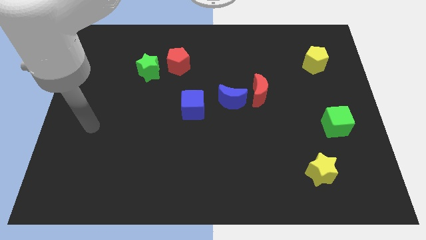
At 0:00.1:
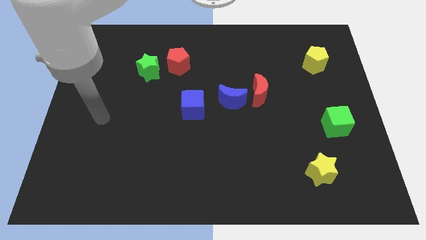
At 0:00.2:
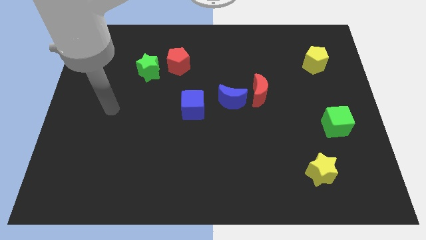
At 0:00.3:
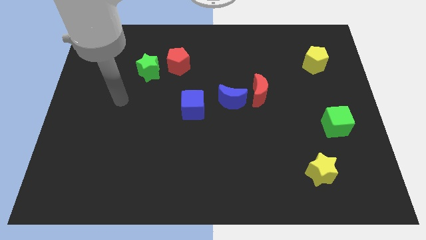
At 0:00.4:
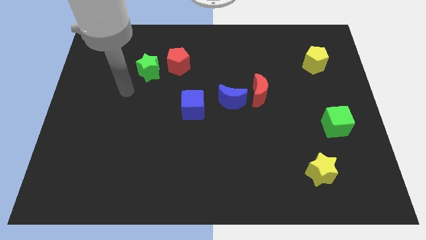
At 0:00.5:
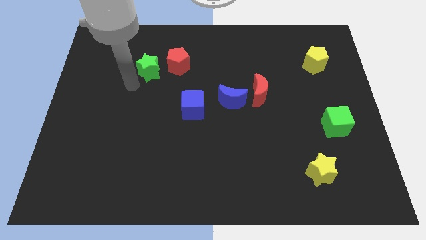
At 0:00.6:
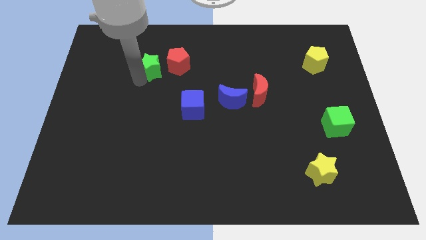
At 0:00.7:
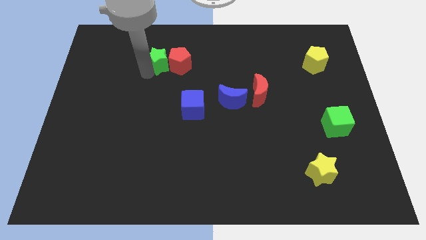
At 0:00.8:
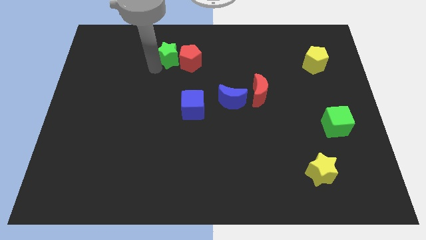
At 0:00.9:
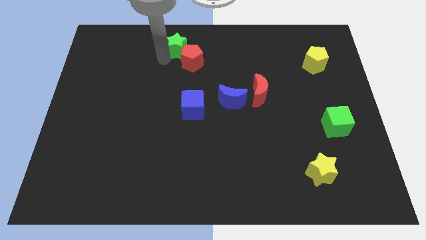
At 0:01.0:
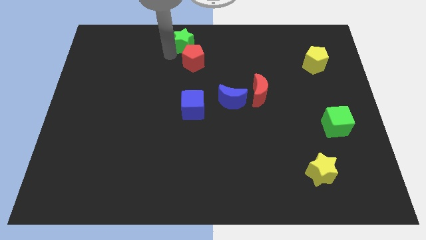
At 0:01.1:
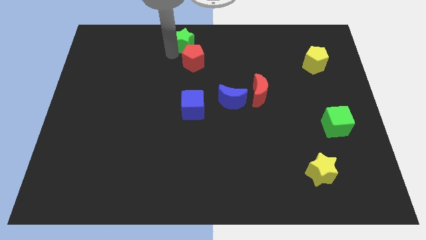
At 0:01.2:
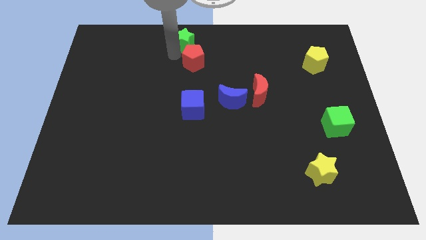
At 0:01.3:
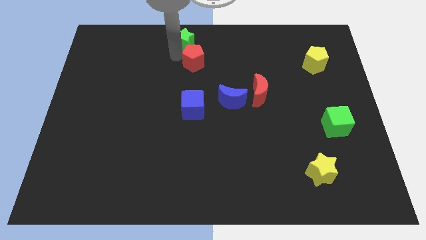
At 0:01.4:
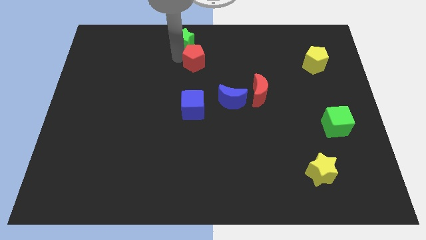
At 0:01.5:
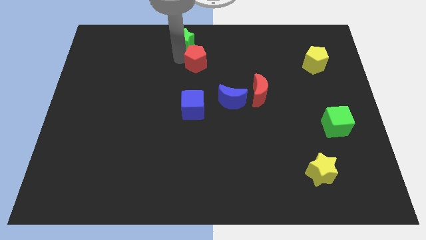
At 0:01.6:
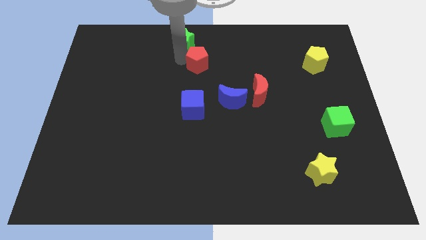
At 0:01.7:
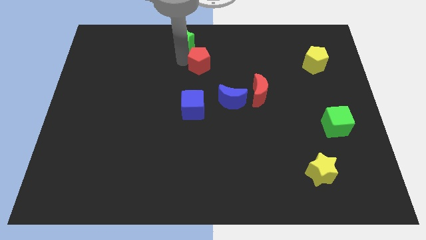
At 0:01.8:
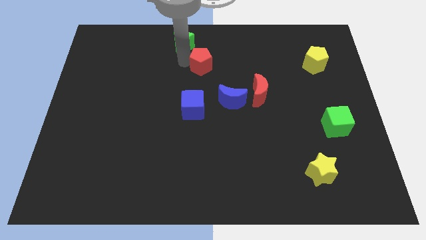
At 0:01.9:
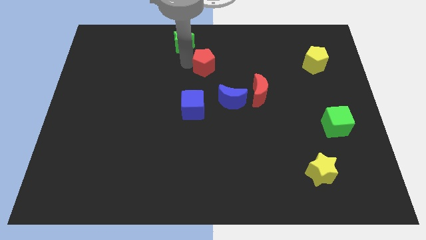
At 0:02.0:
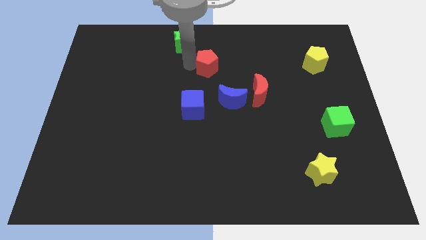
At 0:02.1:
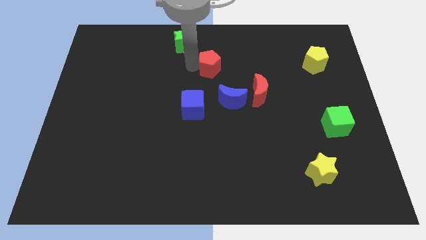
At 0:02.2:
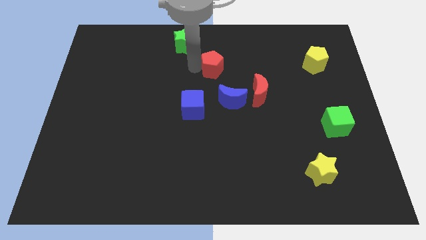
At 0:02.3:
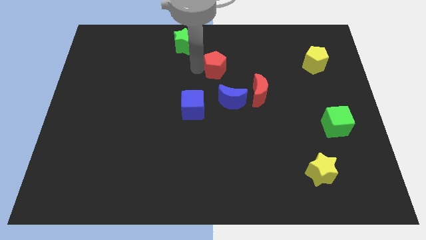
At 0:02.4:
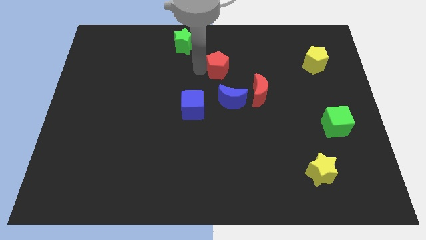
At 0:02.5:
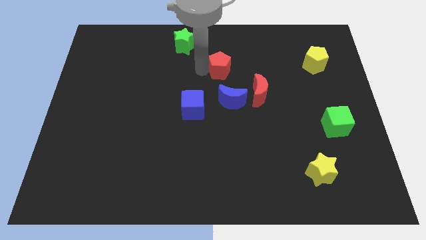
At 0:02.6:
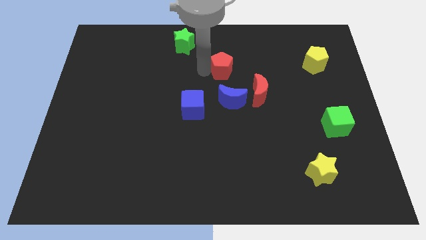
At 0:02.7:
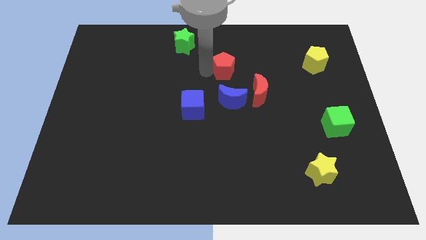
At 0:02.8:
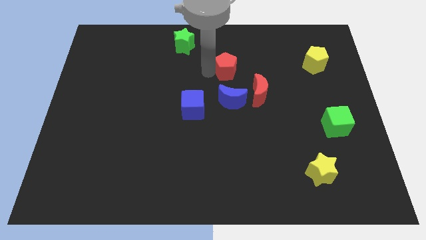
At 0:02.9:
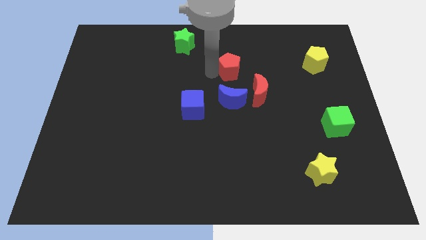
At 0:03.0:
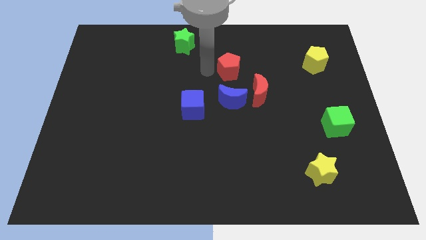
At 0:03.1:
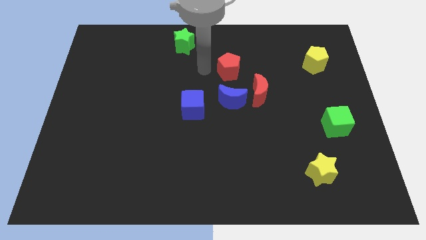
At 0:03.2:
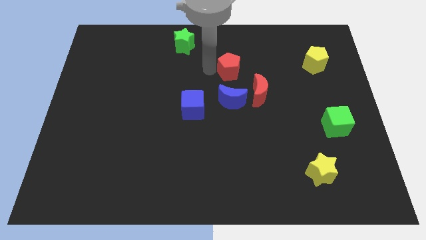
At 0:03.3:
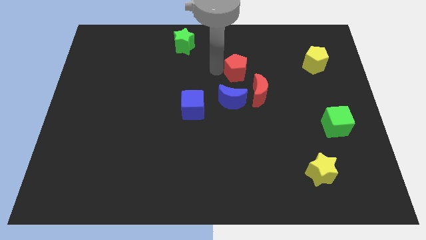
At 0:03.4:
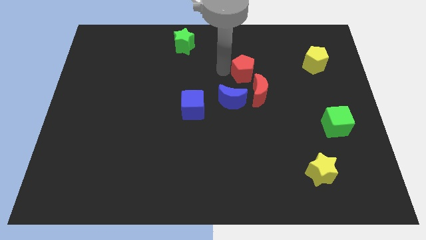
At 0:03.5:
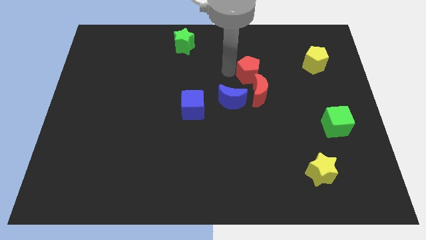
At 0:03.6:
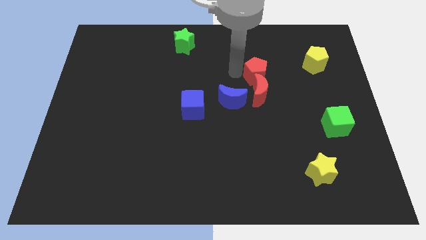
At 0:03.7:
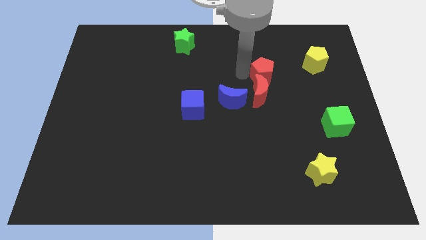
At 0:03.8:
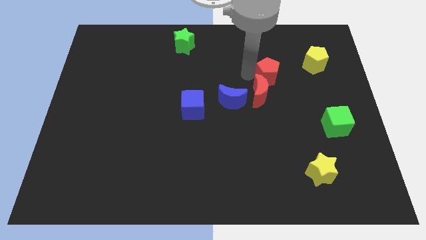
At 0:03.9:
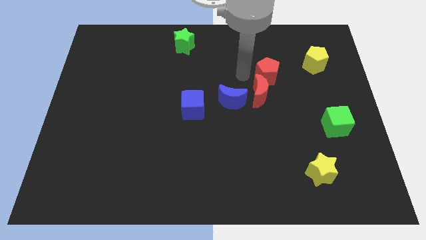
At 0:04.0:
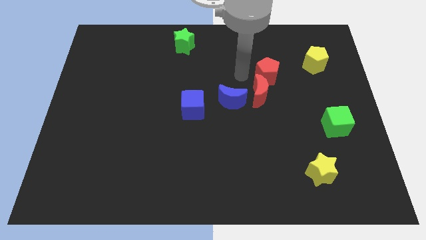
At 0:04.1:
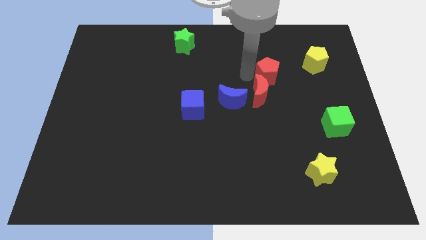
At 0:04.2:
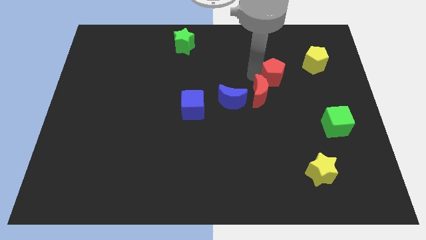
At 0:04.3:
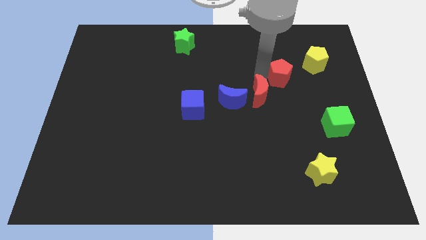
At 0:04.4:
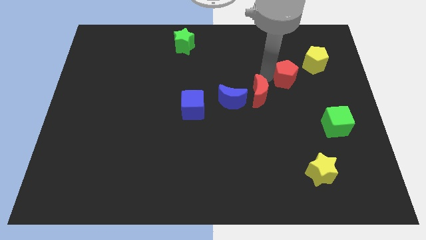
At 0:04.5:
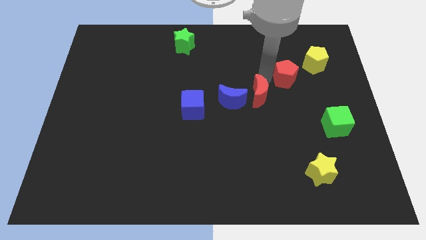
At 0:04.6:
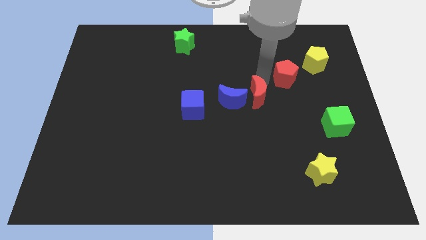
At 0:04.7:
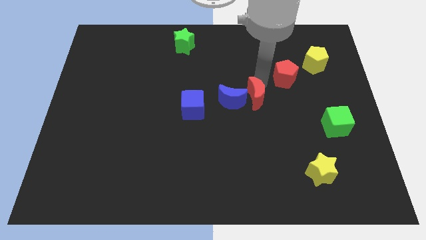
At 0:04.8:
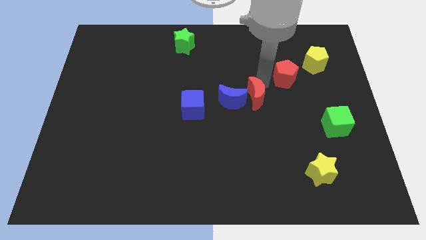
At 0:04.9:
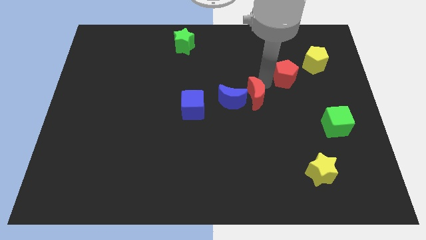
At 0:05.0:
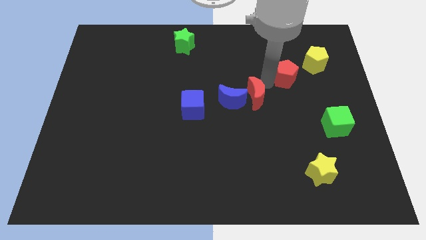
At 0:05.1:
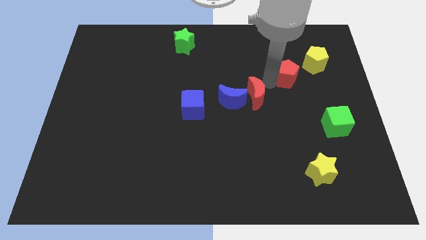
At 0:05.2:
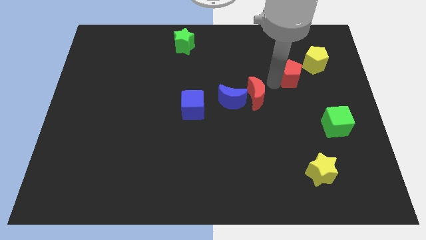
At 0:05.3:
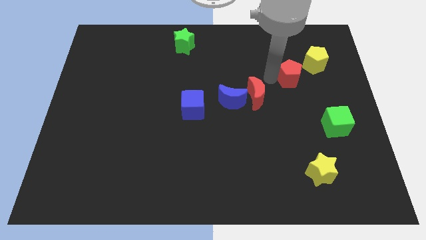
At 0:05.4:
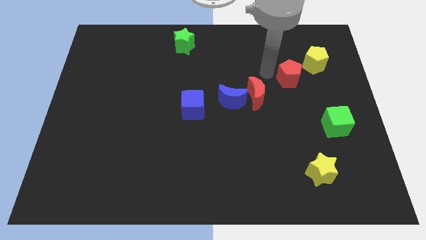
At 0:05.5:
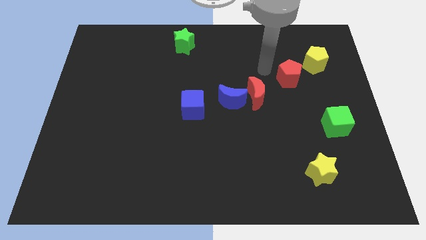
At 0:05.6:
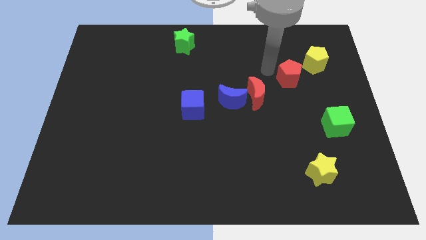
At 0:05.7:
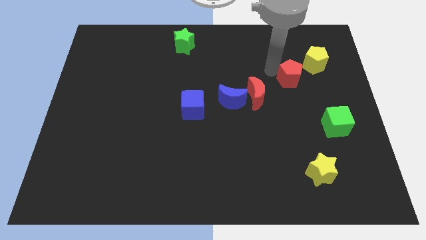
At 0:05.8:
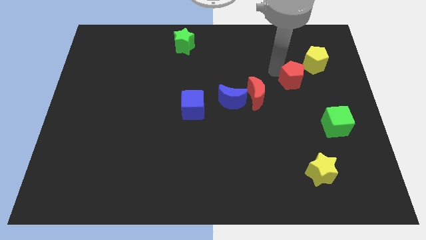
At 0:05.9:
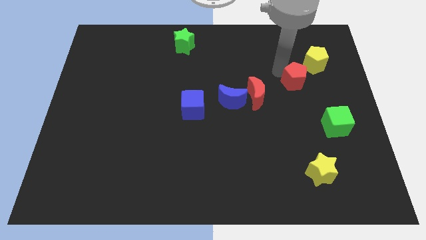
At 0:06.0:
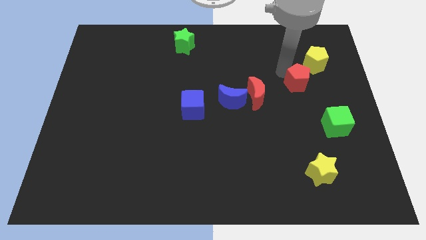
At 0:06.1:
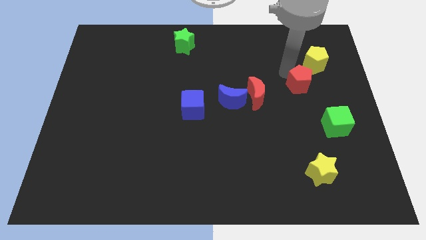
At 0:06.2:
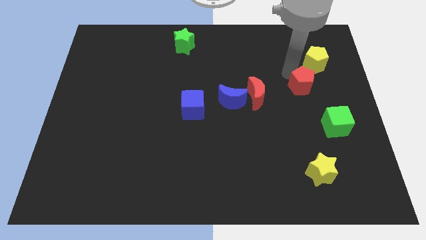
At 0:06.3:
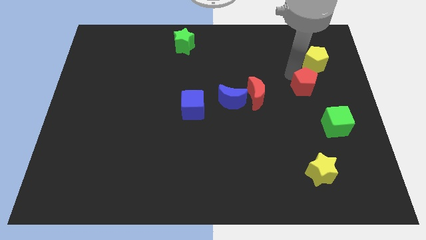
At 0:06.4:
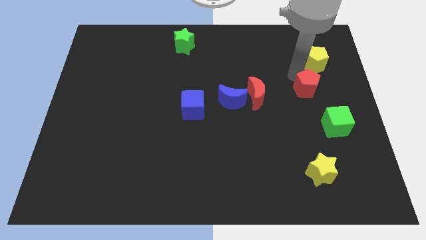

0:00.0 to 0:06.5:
push the red pentagon to the top of the green cube
